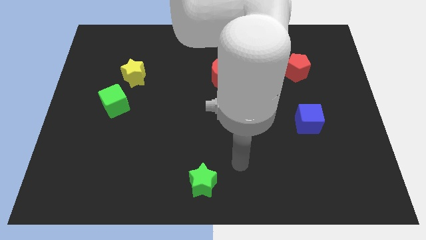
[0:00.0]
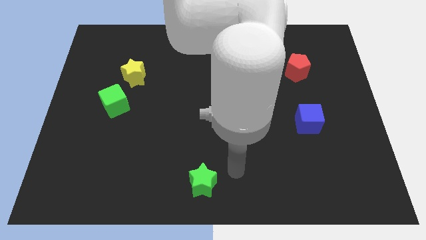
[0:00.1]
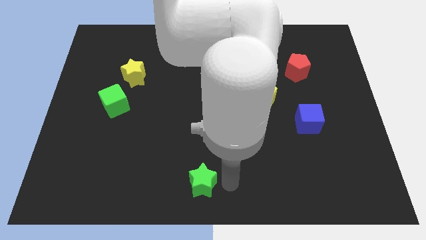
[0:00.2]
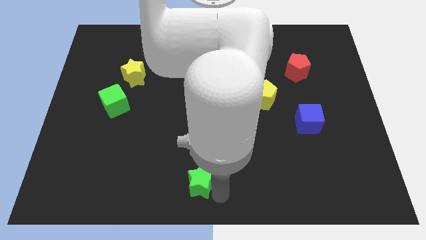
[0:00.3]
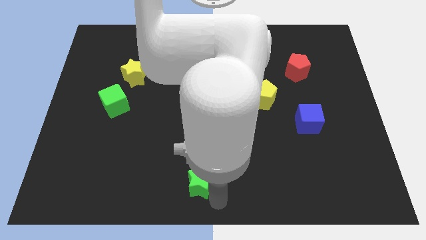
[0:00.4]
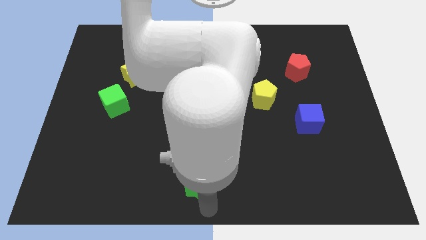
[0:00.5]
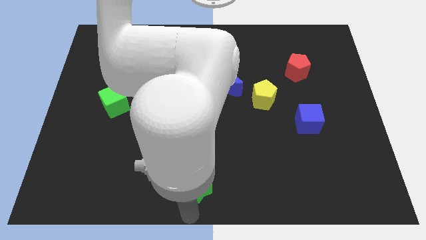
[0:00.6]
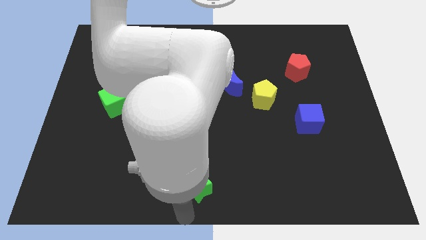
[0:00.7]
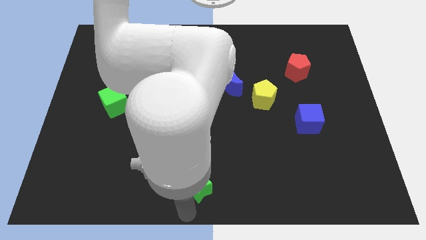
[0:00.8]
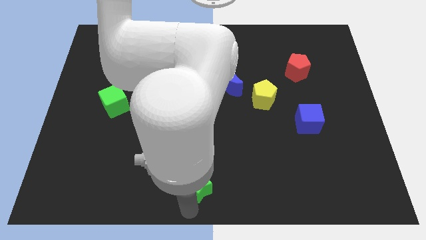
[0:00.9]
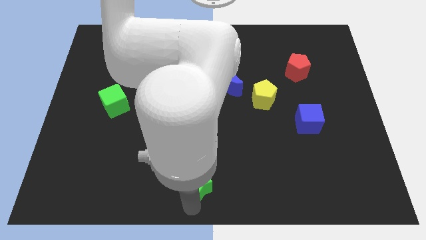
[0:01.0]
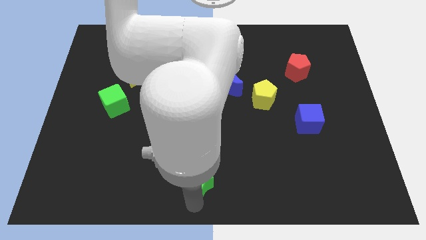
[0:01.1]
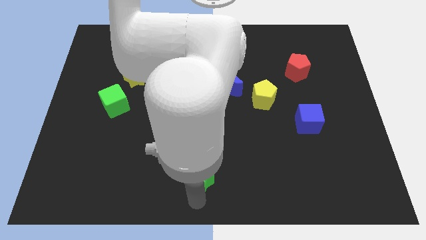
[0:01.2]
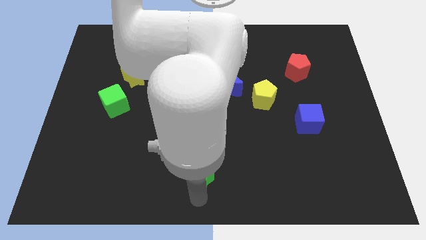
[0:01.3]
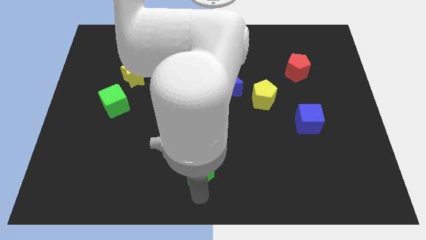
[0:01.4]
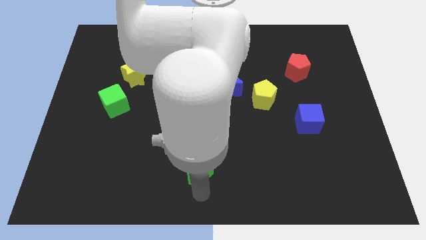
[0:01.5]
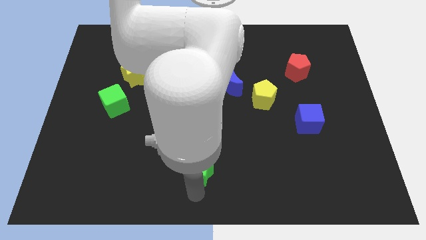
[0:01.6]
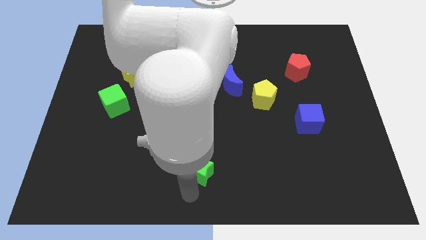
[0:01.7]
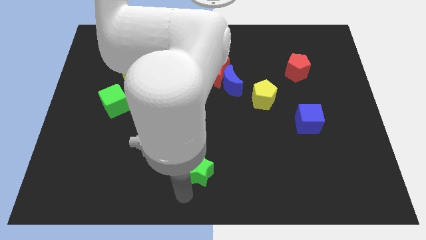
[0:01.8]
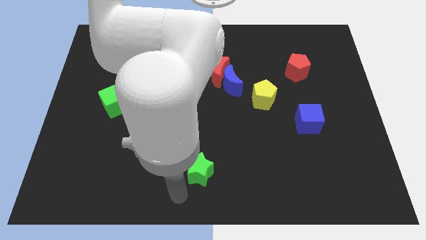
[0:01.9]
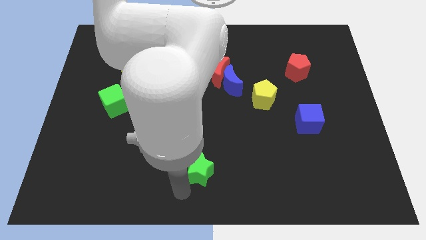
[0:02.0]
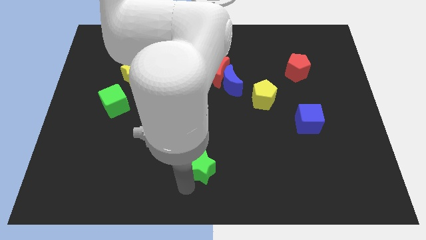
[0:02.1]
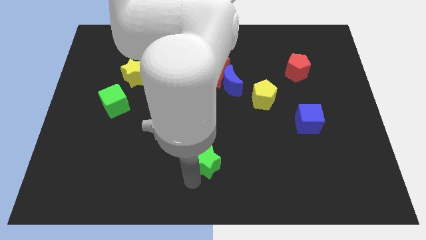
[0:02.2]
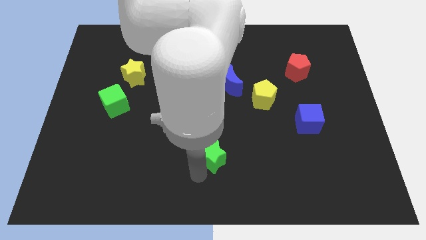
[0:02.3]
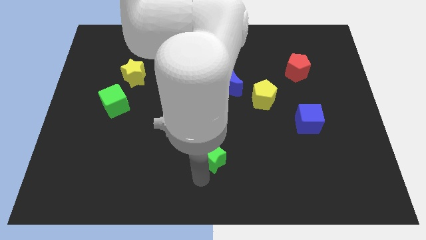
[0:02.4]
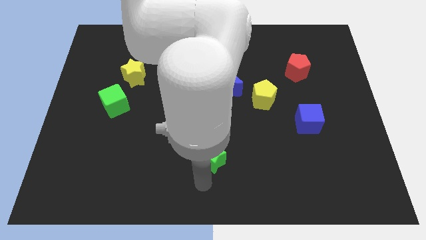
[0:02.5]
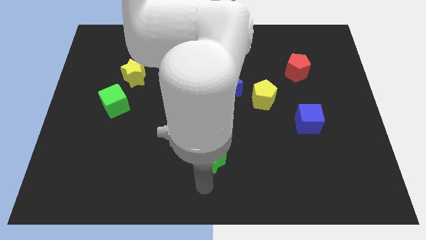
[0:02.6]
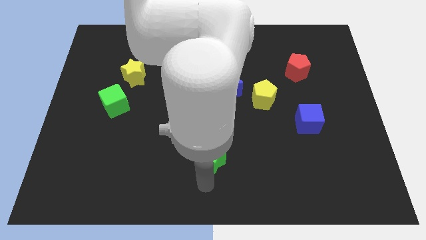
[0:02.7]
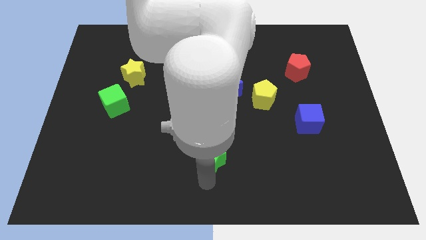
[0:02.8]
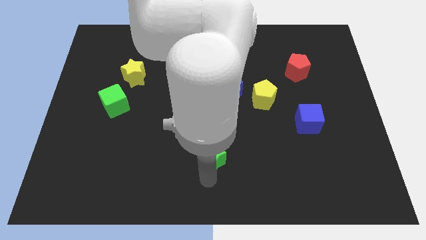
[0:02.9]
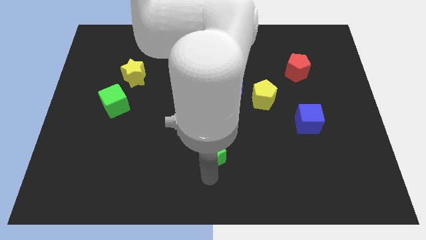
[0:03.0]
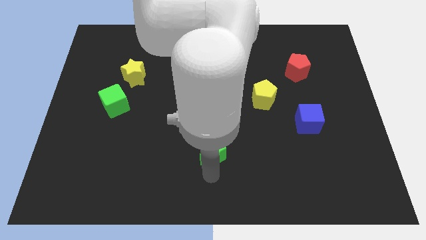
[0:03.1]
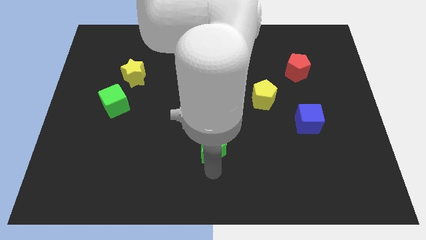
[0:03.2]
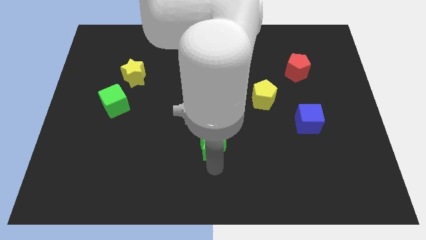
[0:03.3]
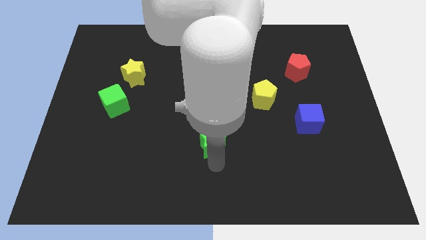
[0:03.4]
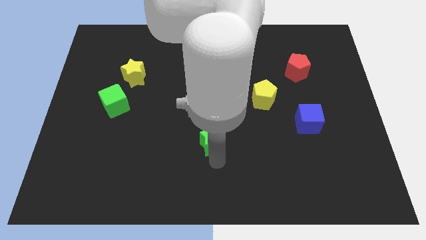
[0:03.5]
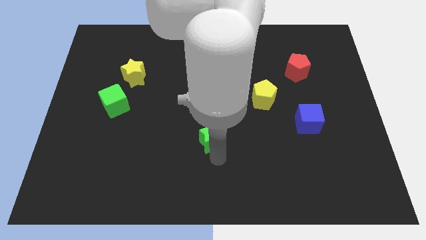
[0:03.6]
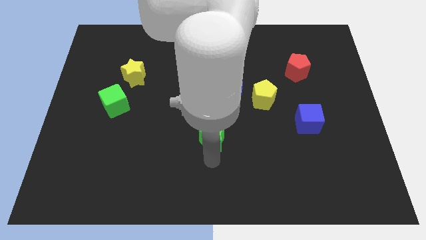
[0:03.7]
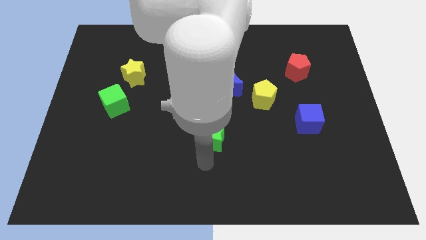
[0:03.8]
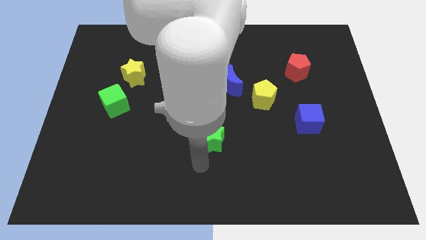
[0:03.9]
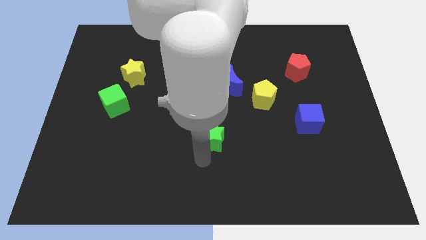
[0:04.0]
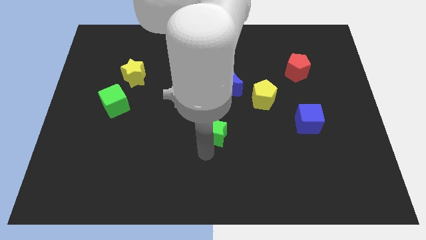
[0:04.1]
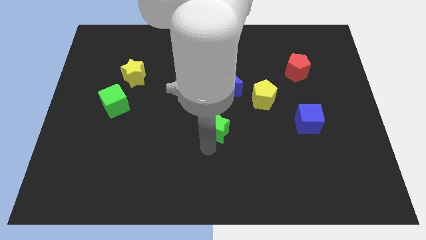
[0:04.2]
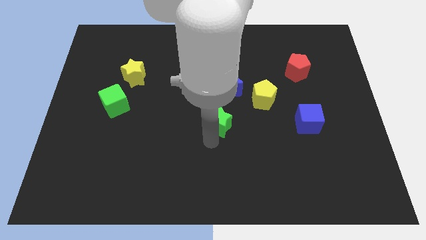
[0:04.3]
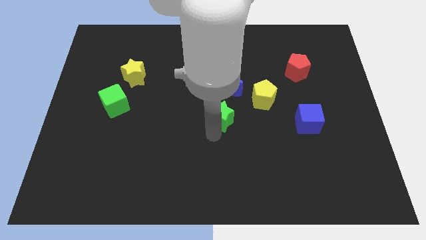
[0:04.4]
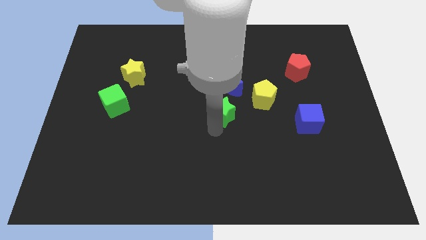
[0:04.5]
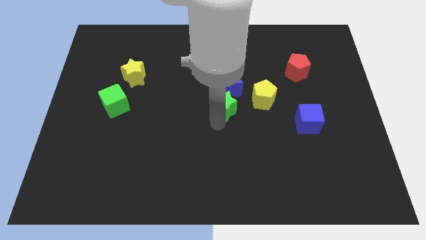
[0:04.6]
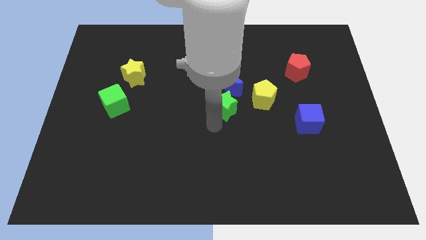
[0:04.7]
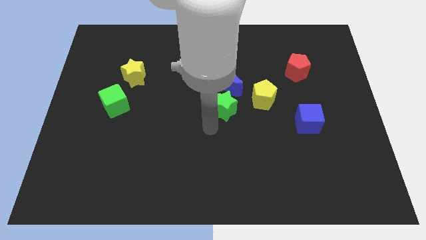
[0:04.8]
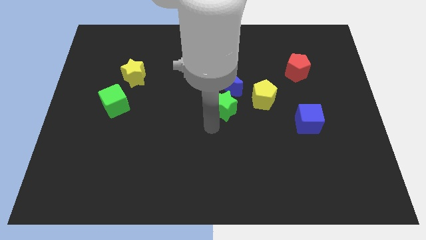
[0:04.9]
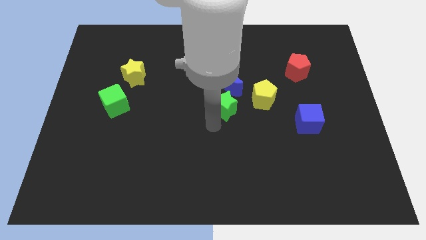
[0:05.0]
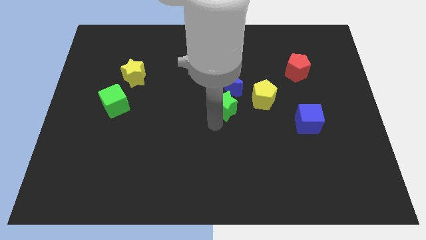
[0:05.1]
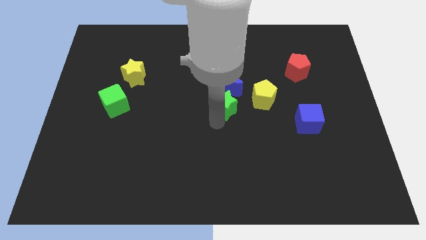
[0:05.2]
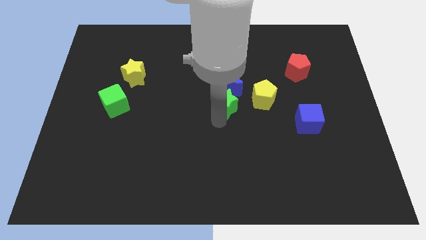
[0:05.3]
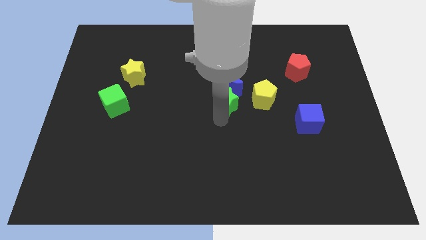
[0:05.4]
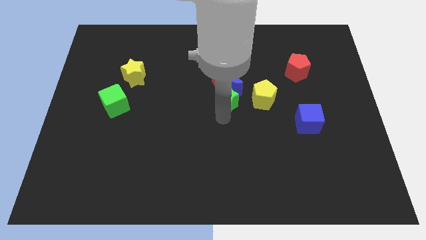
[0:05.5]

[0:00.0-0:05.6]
move the green star close to the blue moon

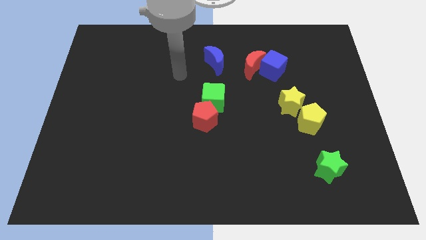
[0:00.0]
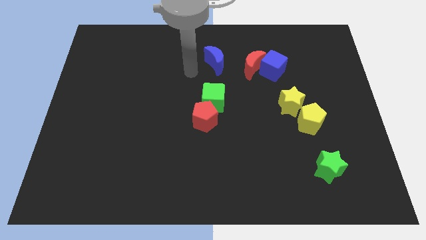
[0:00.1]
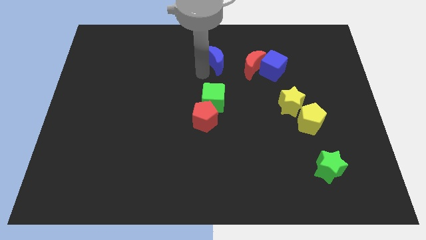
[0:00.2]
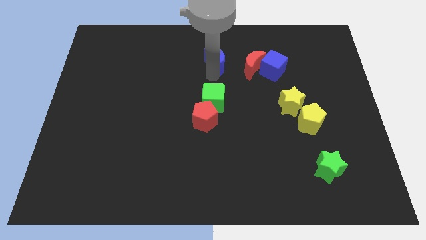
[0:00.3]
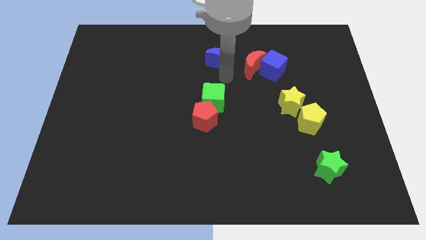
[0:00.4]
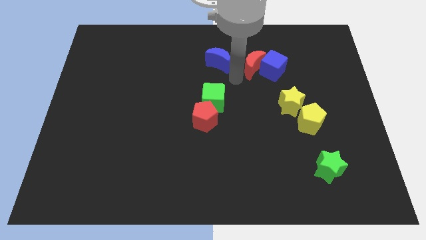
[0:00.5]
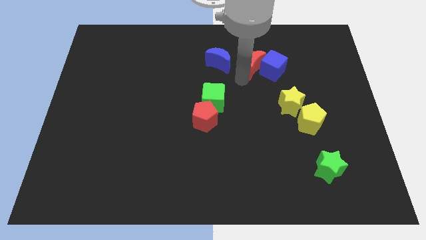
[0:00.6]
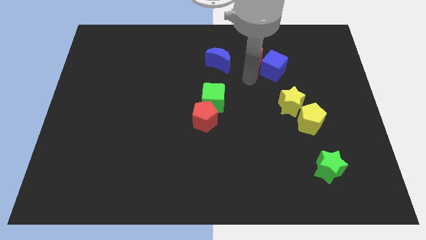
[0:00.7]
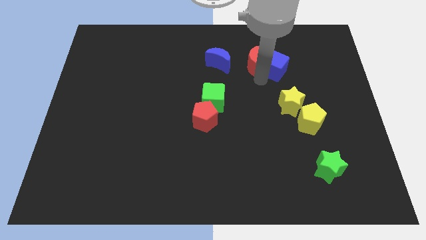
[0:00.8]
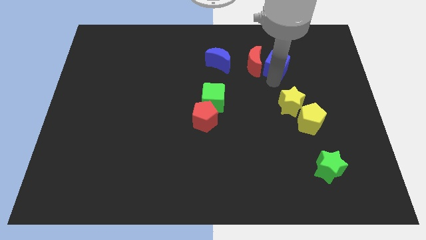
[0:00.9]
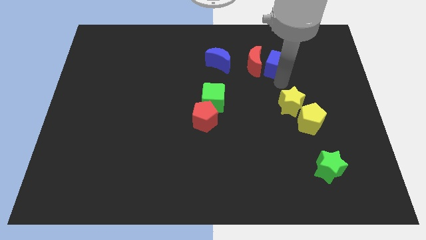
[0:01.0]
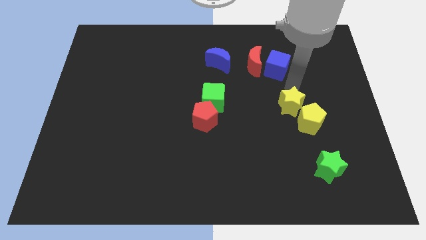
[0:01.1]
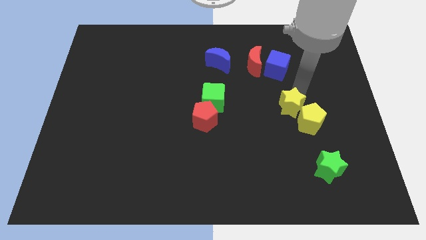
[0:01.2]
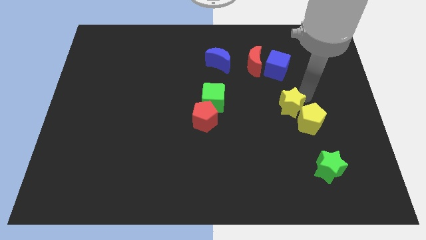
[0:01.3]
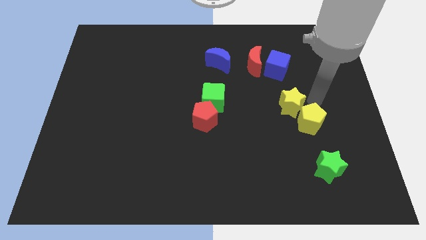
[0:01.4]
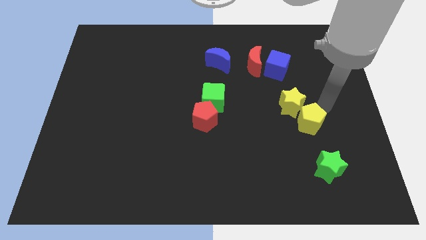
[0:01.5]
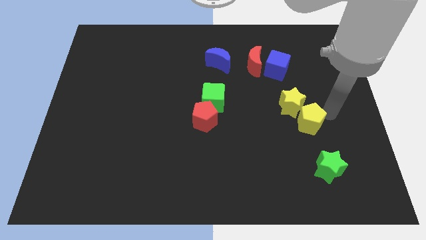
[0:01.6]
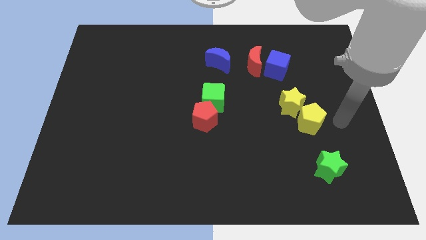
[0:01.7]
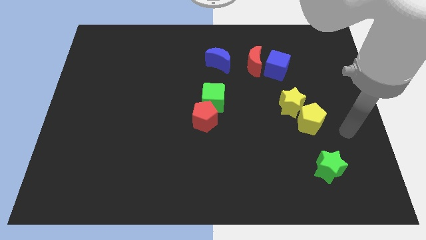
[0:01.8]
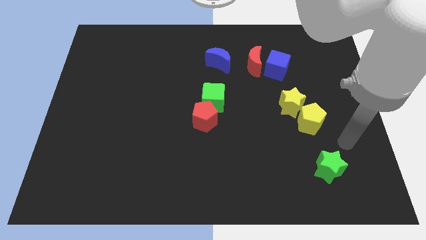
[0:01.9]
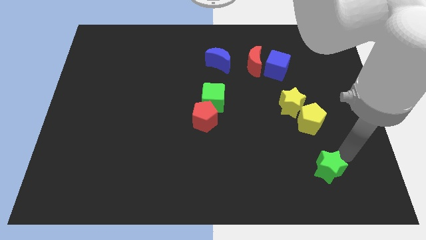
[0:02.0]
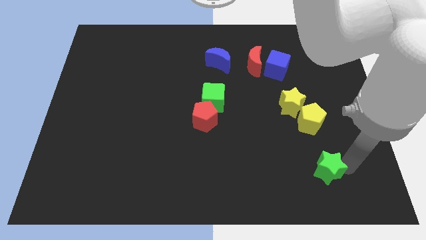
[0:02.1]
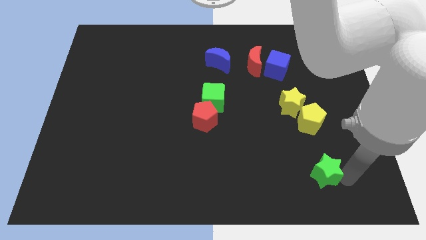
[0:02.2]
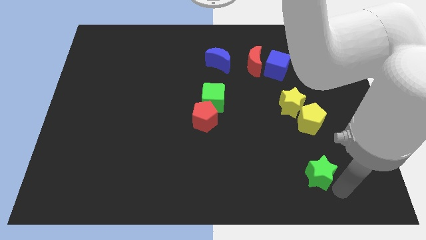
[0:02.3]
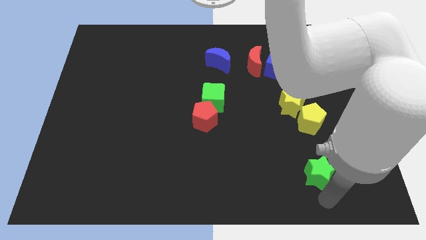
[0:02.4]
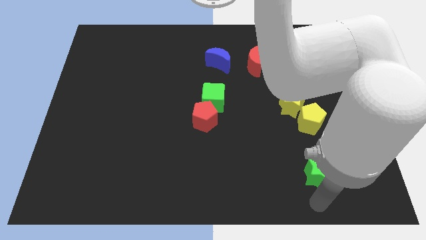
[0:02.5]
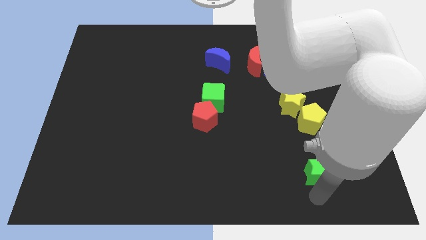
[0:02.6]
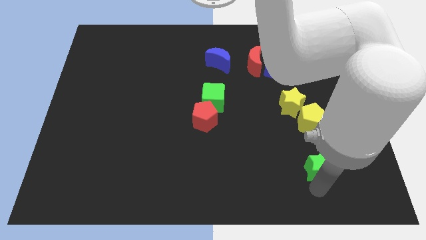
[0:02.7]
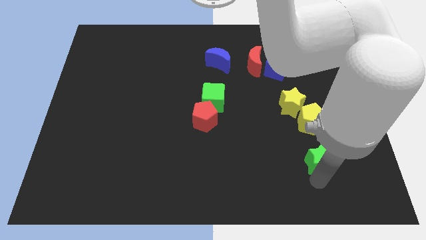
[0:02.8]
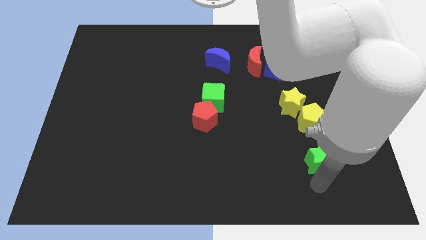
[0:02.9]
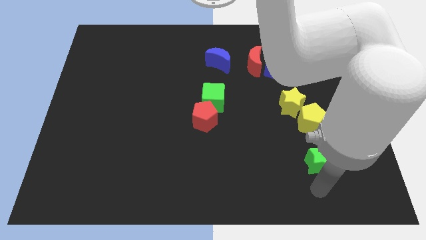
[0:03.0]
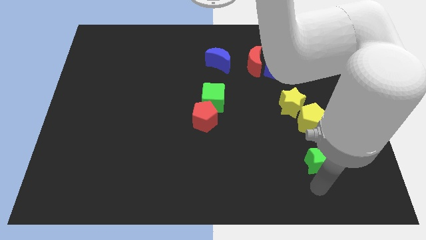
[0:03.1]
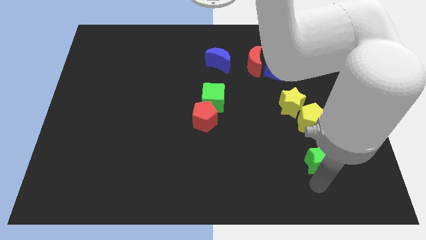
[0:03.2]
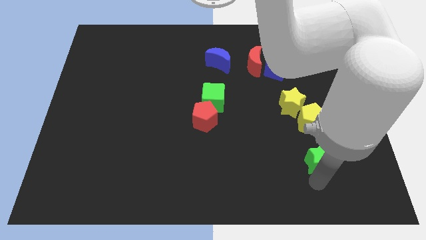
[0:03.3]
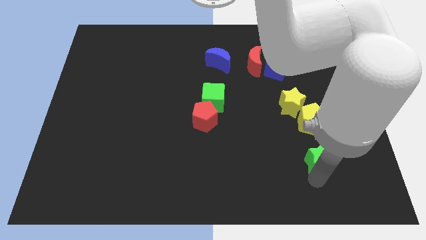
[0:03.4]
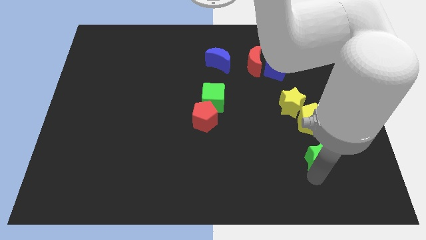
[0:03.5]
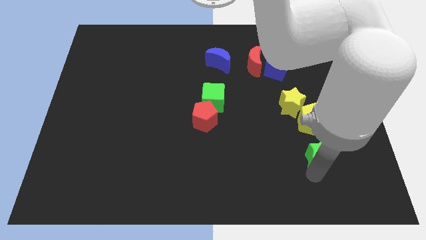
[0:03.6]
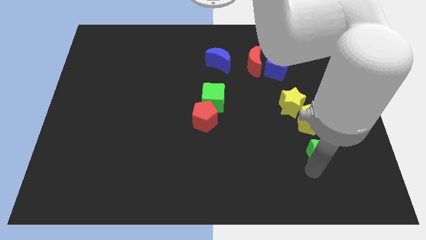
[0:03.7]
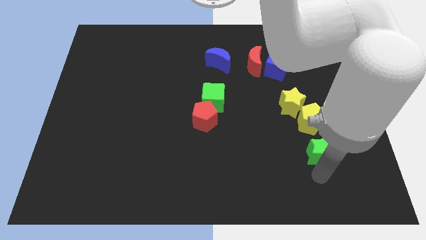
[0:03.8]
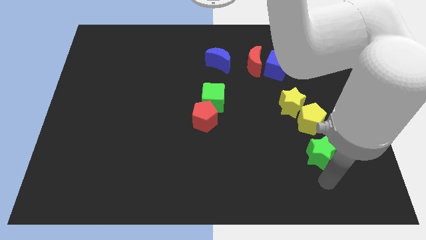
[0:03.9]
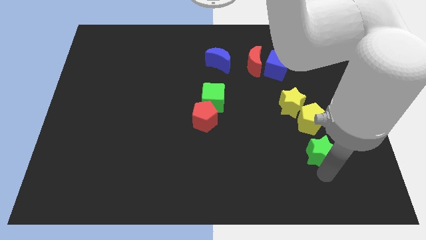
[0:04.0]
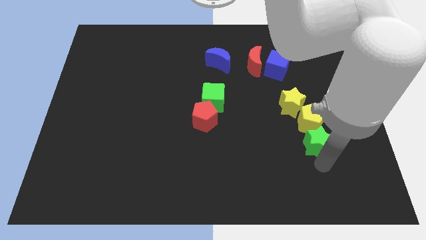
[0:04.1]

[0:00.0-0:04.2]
move the green star next to the yellow pentagon
